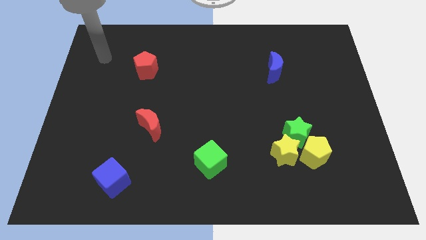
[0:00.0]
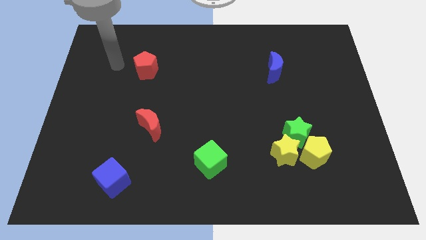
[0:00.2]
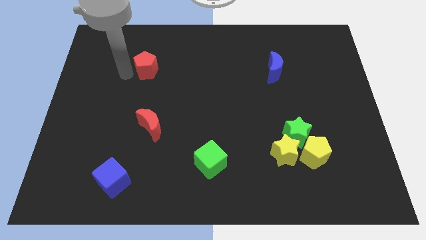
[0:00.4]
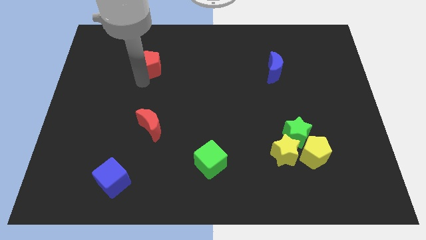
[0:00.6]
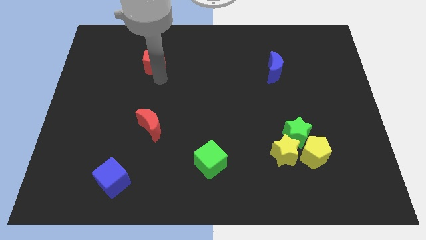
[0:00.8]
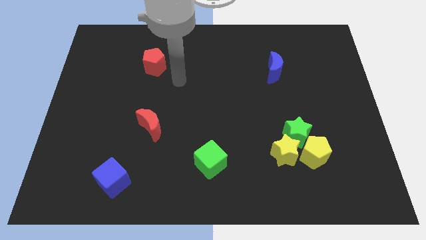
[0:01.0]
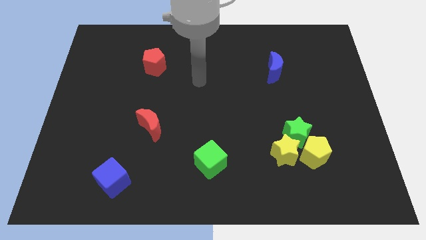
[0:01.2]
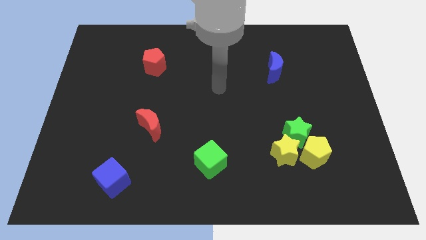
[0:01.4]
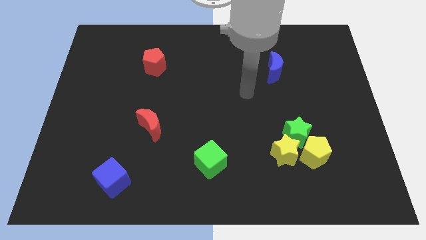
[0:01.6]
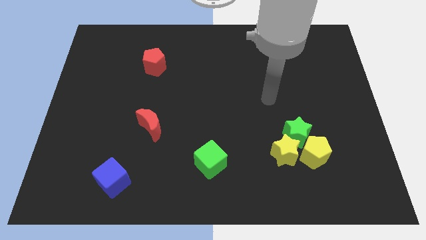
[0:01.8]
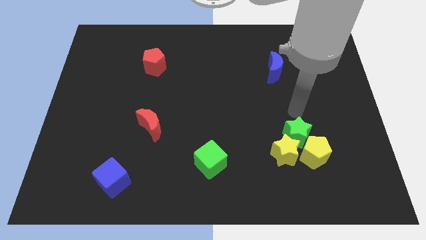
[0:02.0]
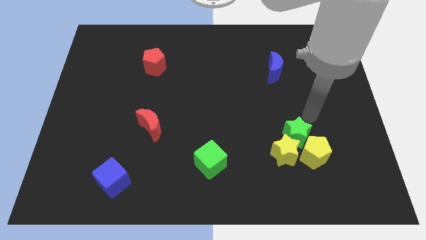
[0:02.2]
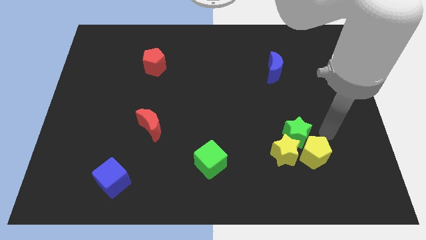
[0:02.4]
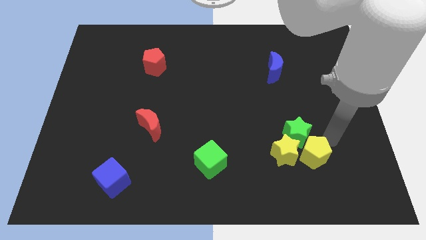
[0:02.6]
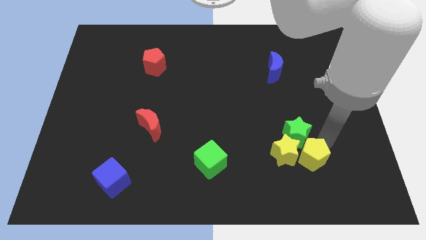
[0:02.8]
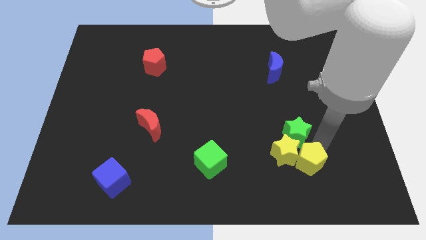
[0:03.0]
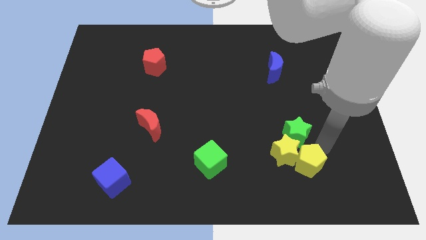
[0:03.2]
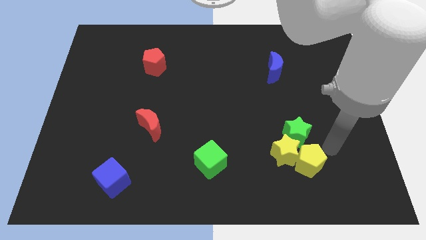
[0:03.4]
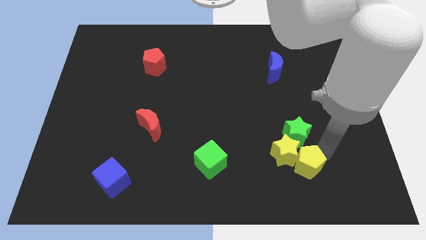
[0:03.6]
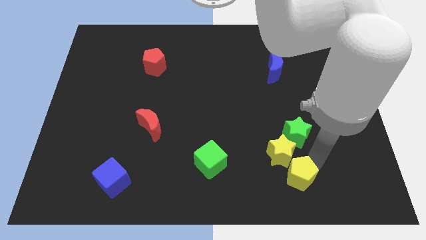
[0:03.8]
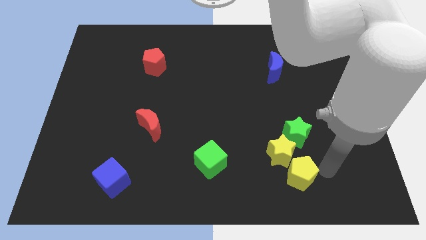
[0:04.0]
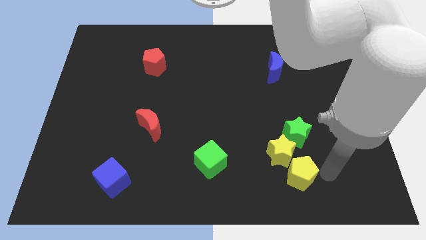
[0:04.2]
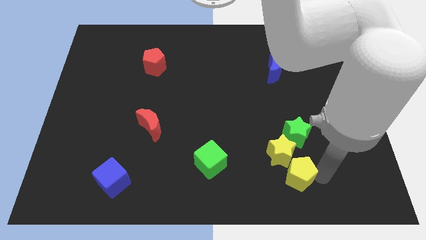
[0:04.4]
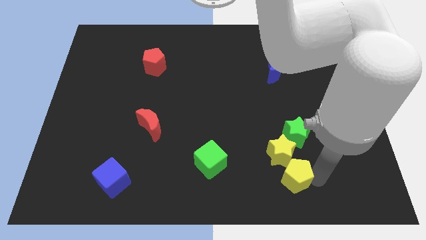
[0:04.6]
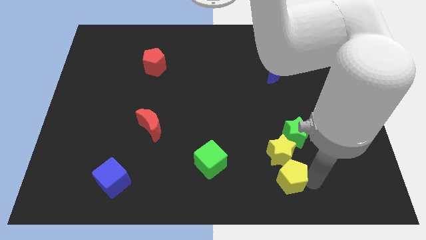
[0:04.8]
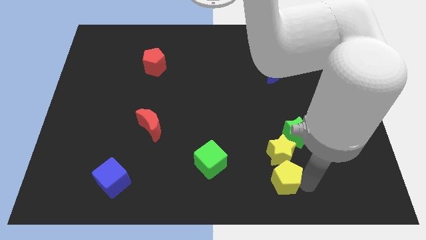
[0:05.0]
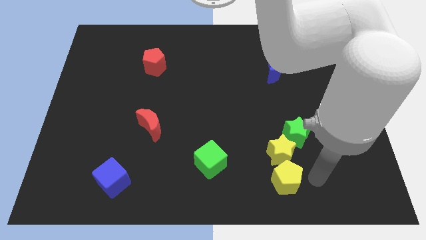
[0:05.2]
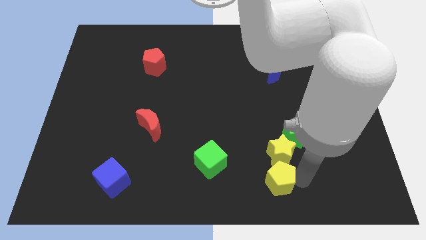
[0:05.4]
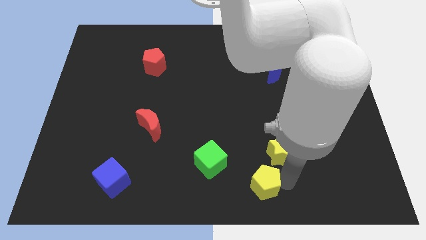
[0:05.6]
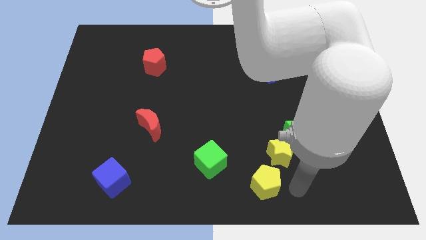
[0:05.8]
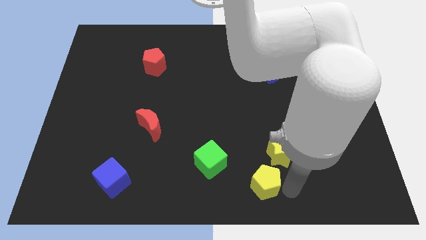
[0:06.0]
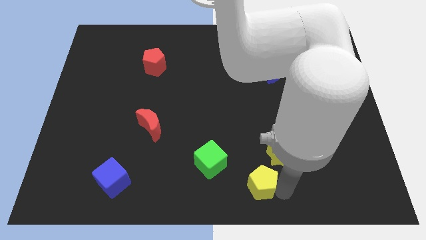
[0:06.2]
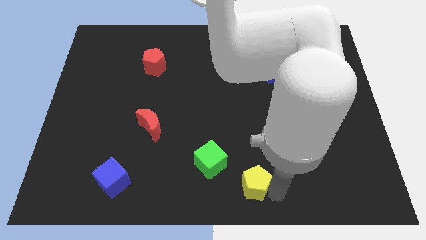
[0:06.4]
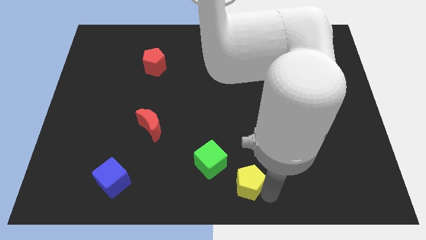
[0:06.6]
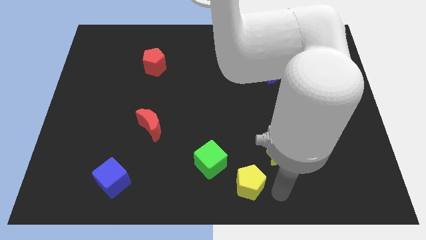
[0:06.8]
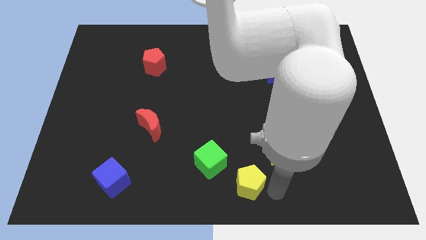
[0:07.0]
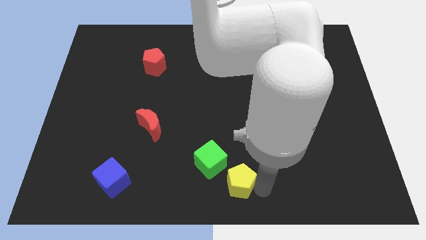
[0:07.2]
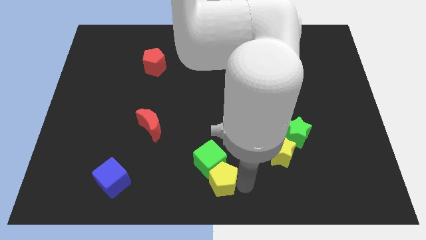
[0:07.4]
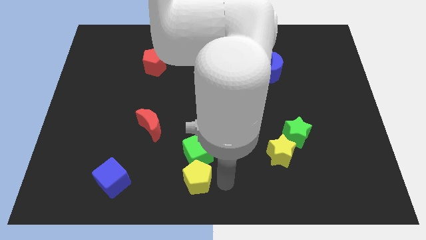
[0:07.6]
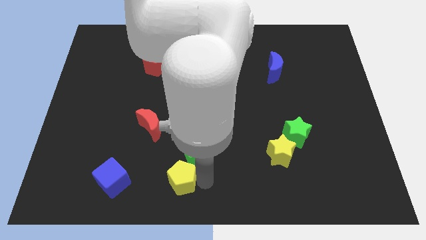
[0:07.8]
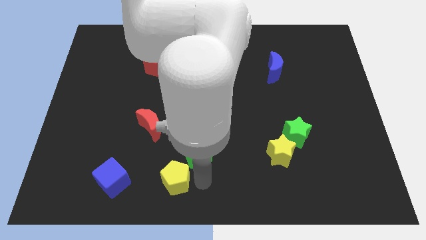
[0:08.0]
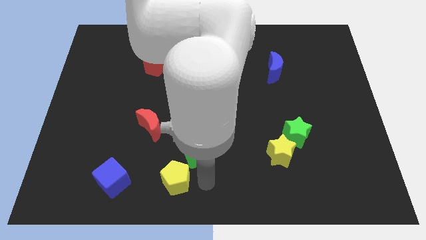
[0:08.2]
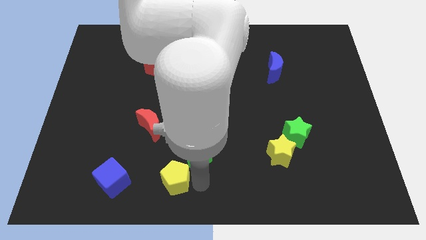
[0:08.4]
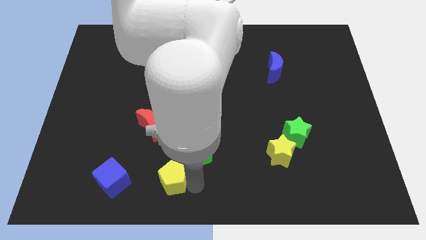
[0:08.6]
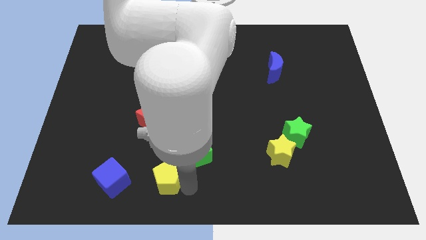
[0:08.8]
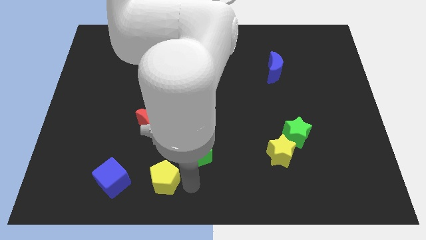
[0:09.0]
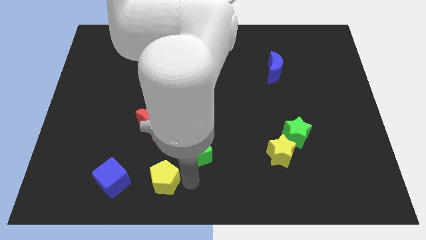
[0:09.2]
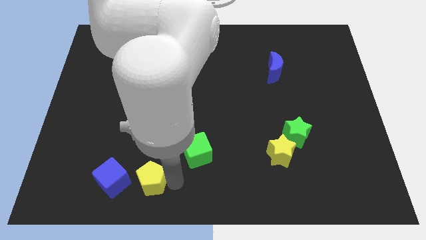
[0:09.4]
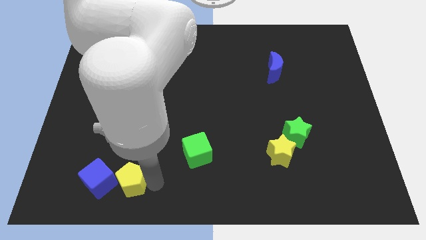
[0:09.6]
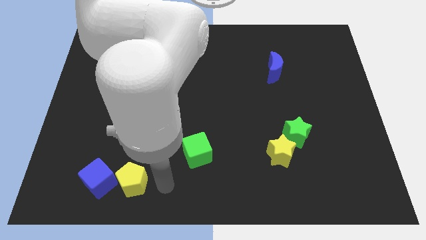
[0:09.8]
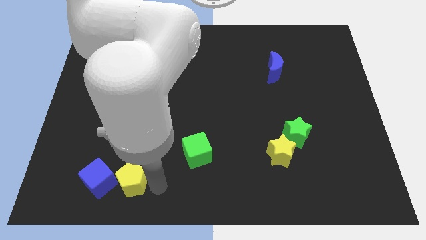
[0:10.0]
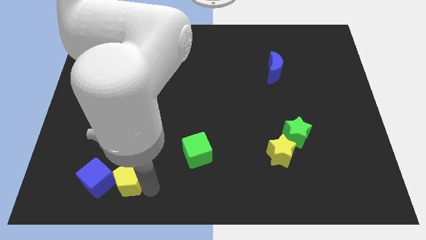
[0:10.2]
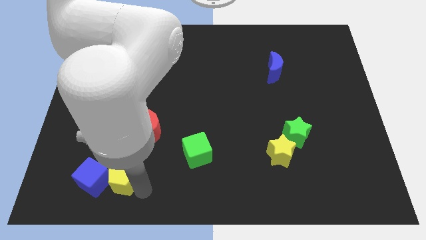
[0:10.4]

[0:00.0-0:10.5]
put the yellow pentagon close to the blue cube

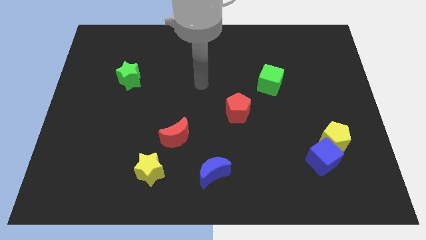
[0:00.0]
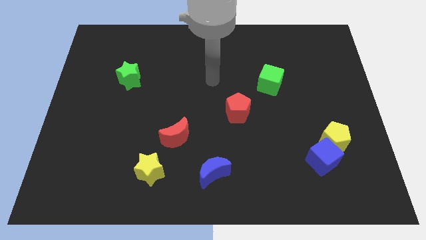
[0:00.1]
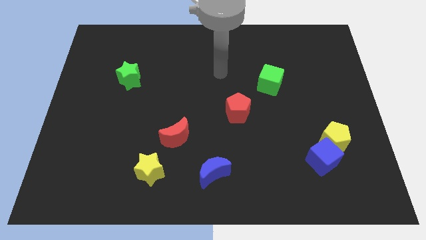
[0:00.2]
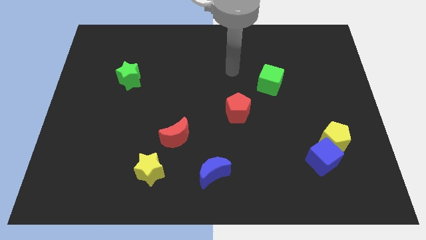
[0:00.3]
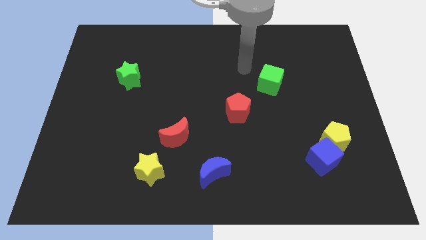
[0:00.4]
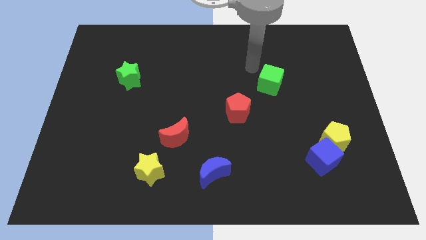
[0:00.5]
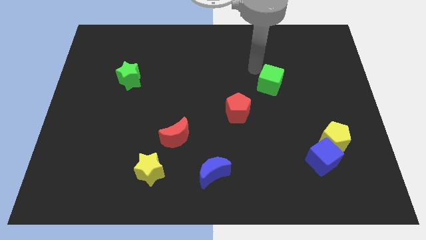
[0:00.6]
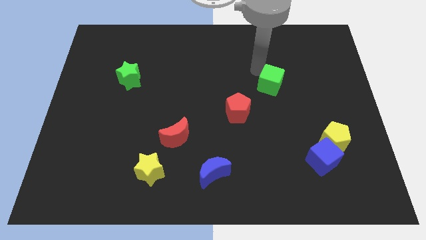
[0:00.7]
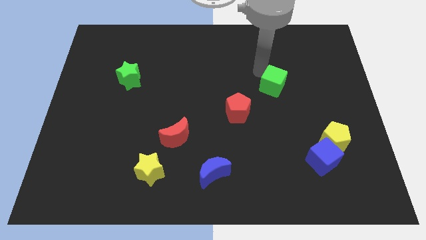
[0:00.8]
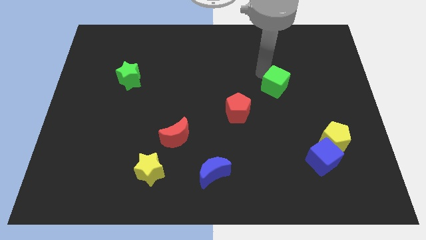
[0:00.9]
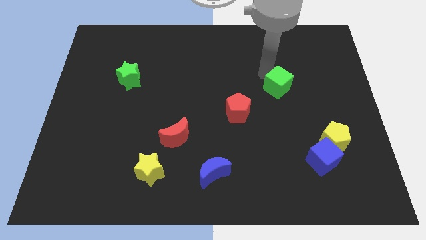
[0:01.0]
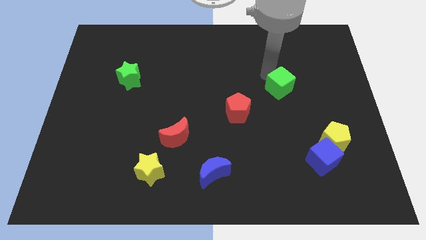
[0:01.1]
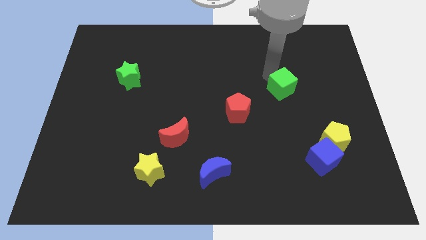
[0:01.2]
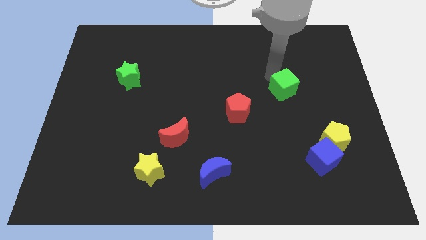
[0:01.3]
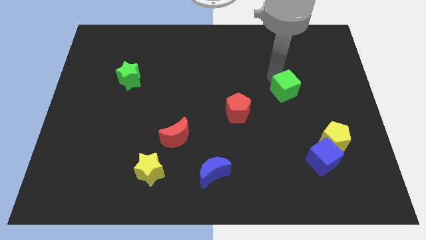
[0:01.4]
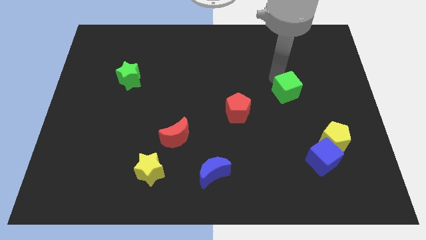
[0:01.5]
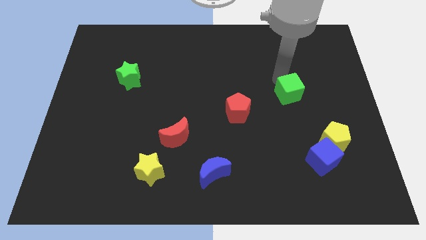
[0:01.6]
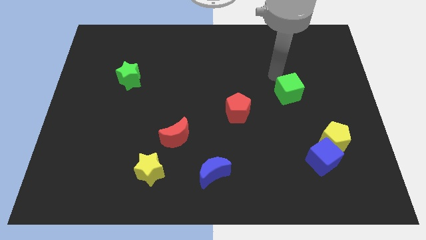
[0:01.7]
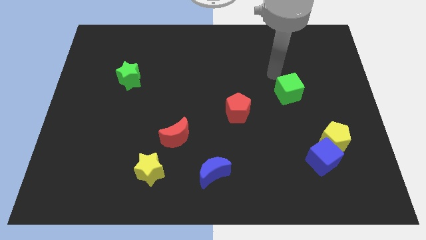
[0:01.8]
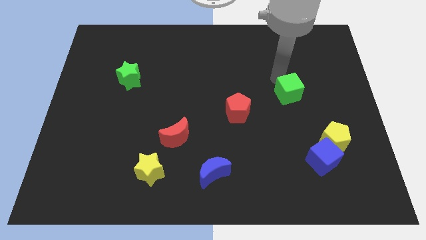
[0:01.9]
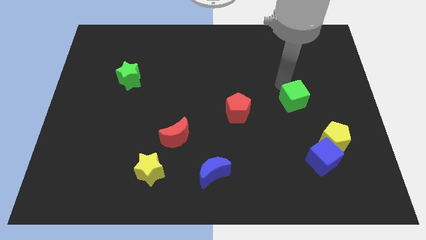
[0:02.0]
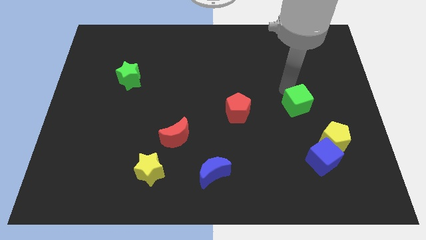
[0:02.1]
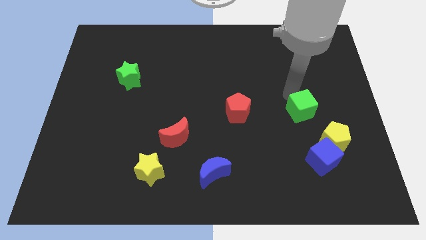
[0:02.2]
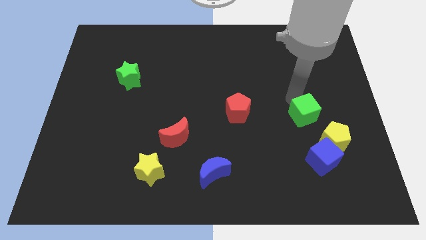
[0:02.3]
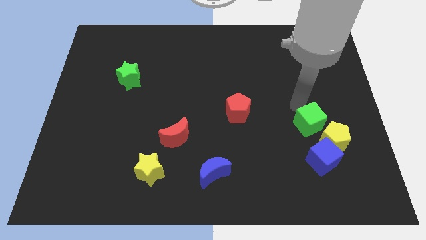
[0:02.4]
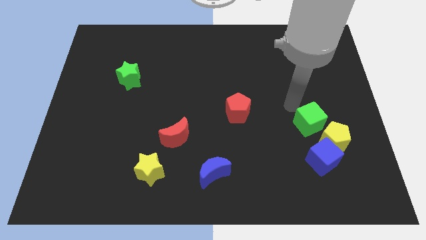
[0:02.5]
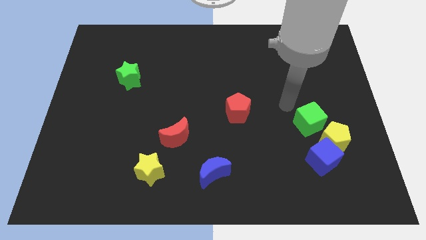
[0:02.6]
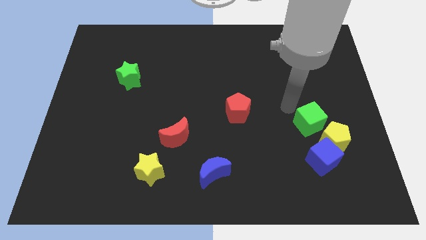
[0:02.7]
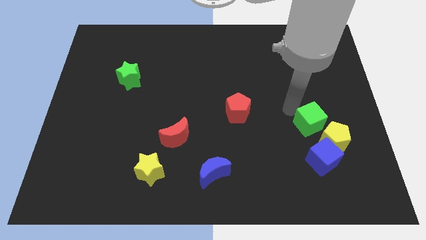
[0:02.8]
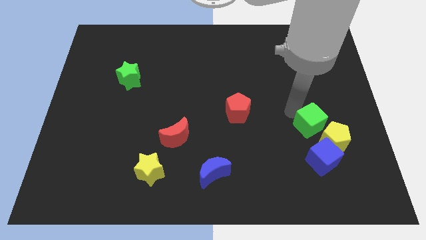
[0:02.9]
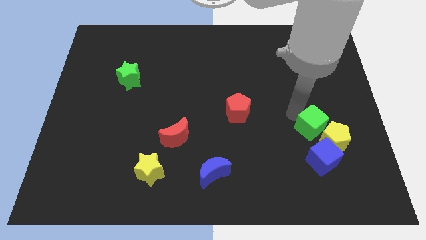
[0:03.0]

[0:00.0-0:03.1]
put the green cube close to the yellow pentagon
